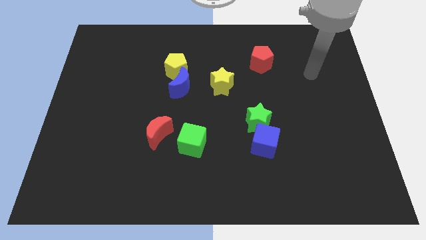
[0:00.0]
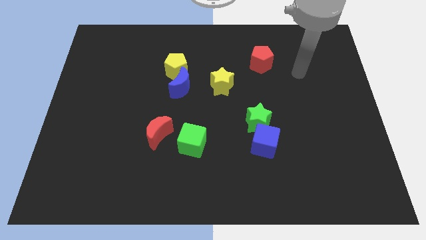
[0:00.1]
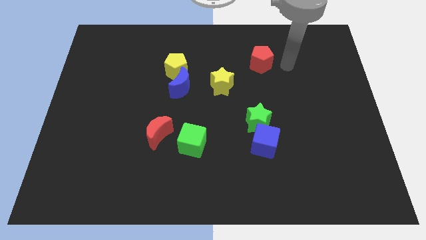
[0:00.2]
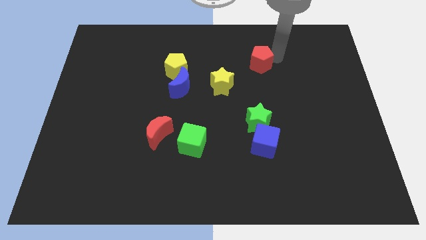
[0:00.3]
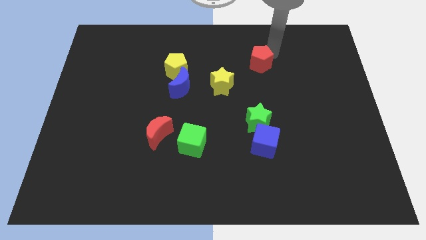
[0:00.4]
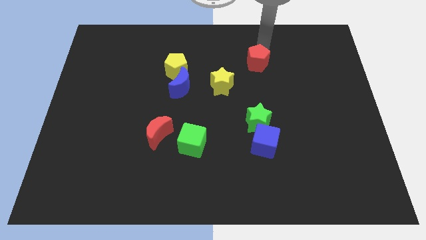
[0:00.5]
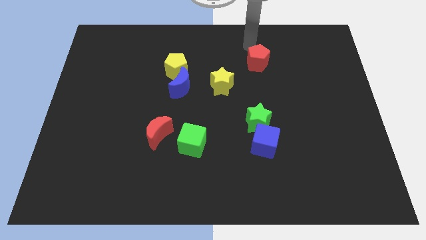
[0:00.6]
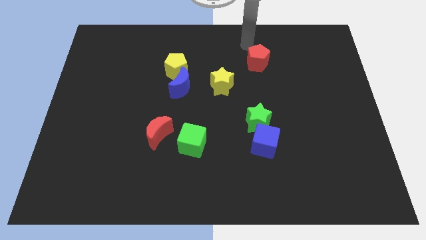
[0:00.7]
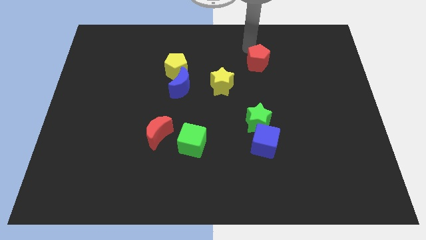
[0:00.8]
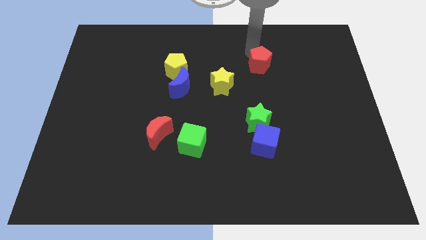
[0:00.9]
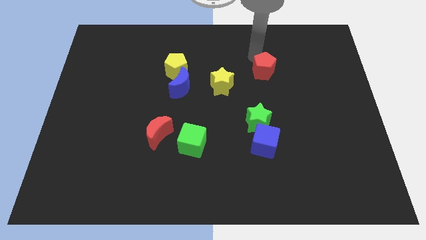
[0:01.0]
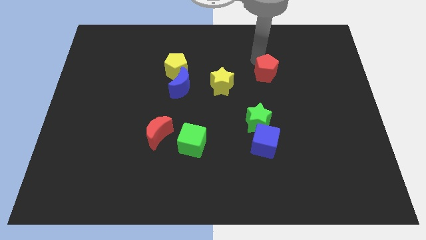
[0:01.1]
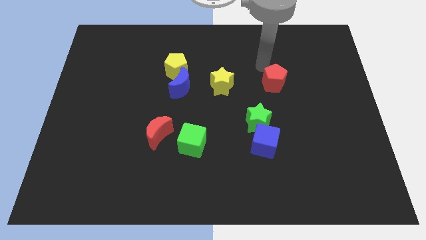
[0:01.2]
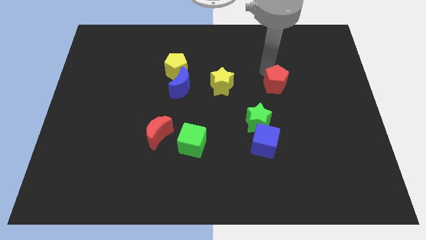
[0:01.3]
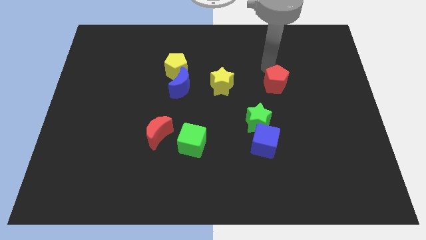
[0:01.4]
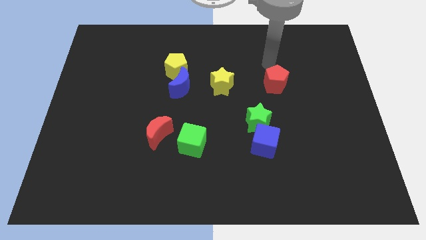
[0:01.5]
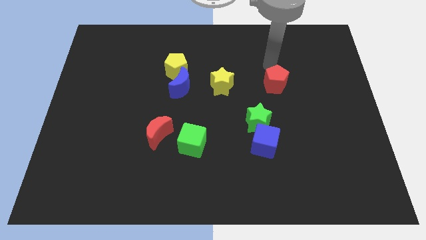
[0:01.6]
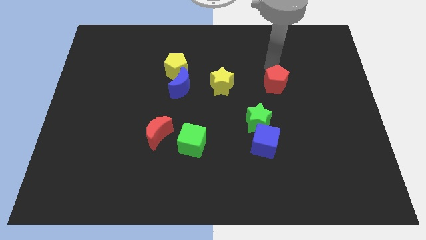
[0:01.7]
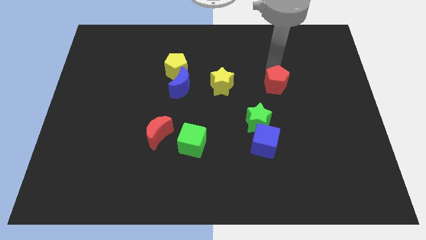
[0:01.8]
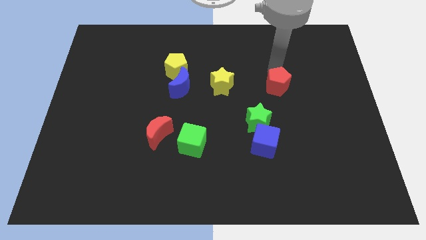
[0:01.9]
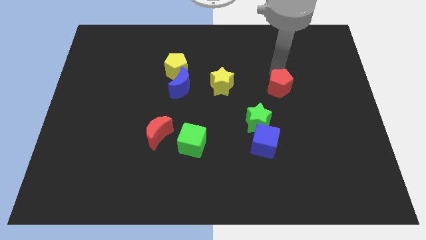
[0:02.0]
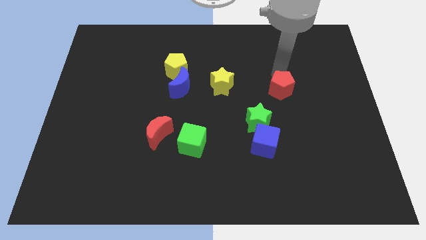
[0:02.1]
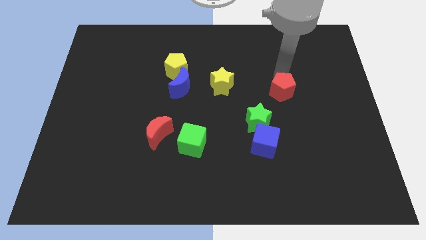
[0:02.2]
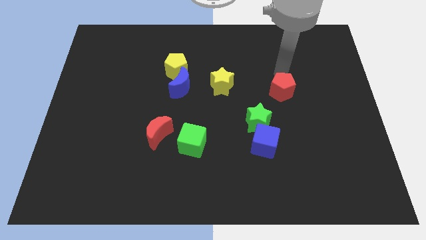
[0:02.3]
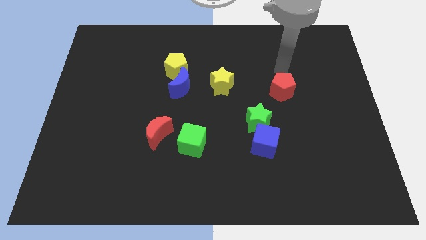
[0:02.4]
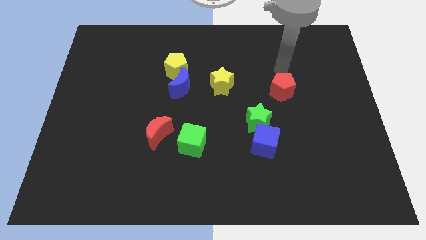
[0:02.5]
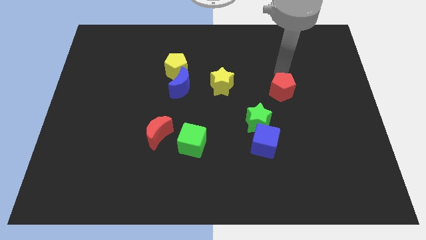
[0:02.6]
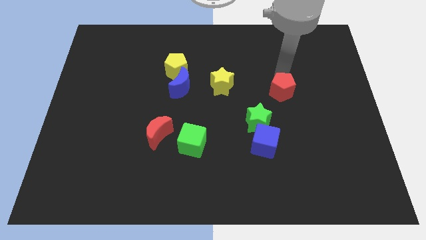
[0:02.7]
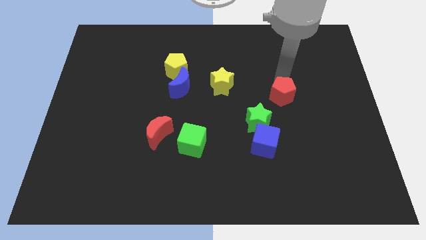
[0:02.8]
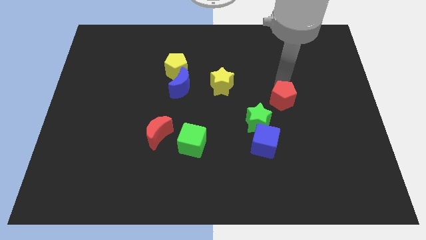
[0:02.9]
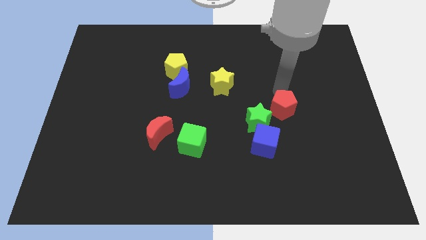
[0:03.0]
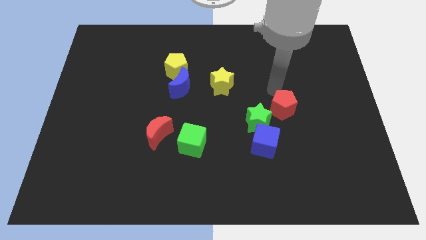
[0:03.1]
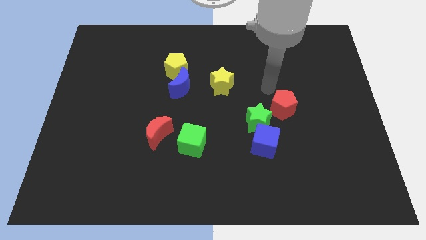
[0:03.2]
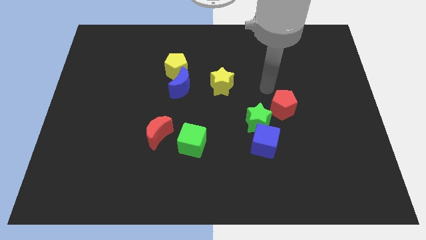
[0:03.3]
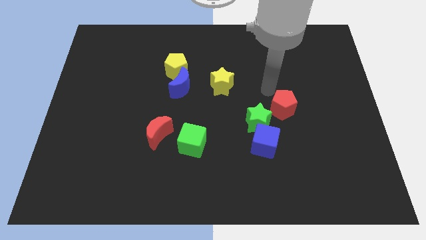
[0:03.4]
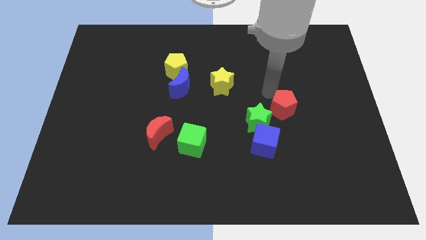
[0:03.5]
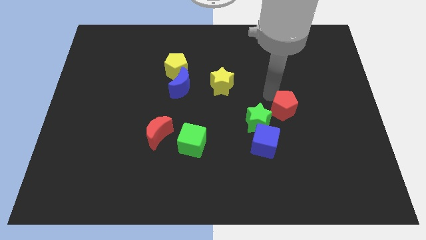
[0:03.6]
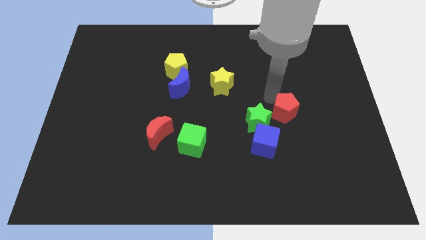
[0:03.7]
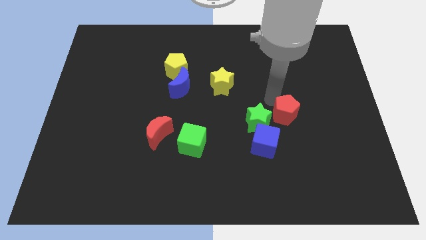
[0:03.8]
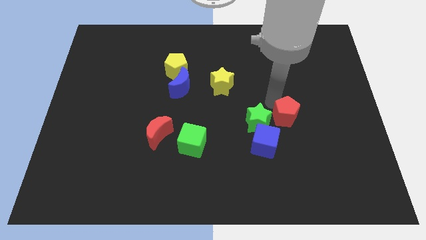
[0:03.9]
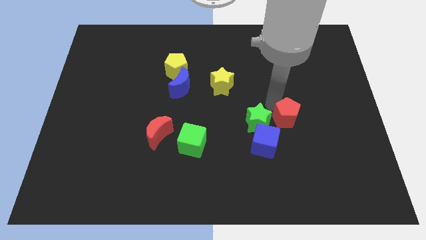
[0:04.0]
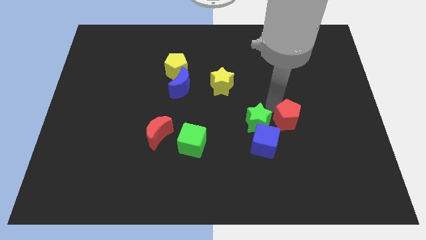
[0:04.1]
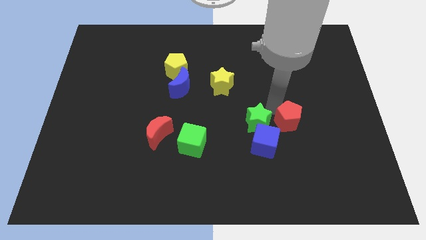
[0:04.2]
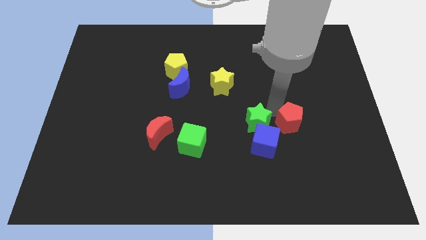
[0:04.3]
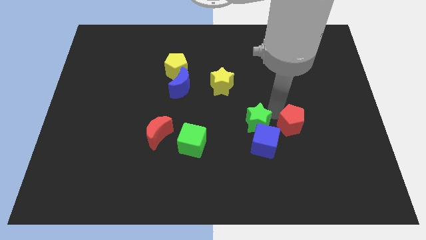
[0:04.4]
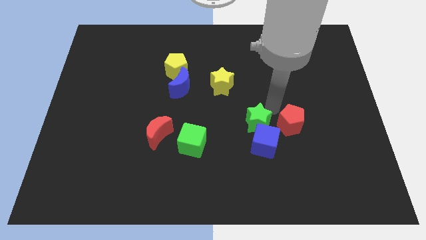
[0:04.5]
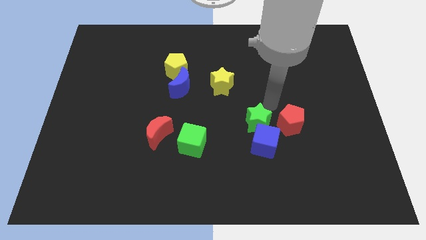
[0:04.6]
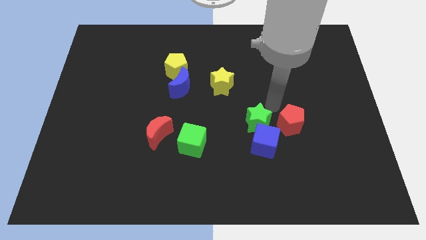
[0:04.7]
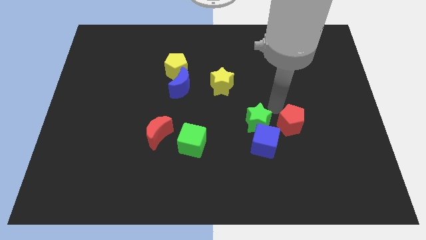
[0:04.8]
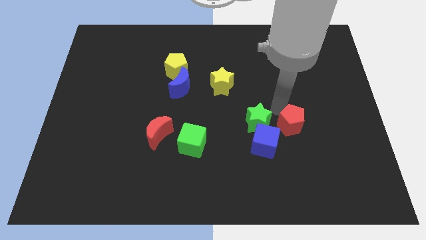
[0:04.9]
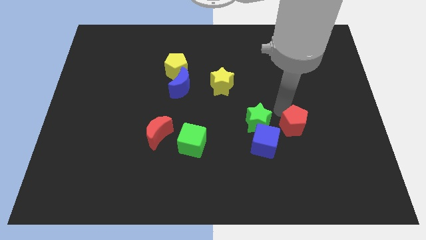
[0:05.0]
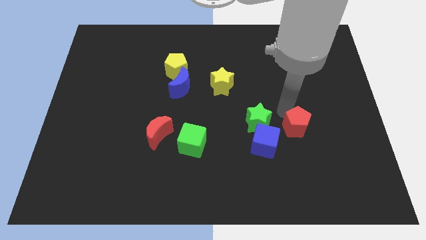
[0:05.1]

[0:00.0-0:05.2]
slide the red pentagon to the right of the blue cube

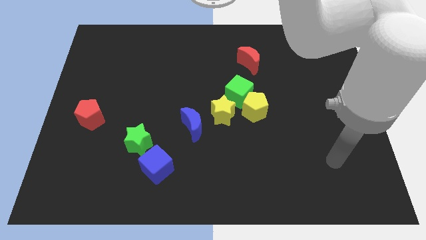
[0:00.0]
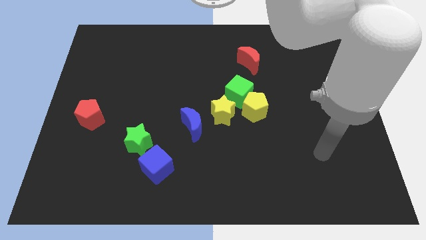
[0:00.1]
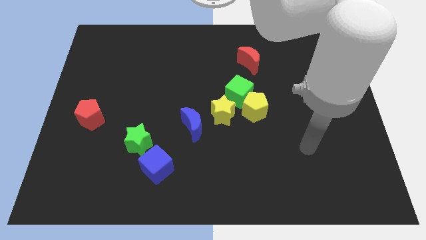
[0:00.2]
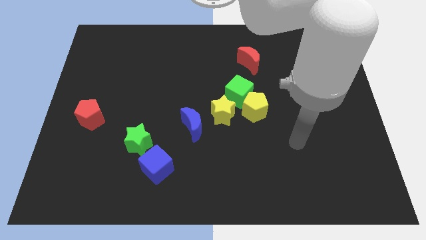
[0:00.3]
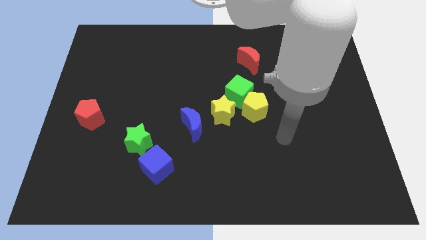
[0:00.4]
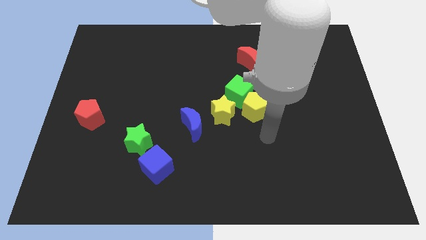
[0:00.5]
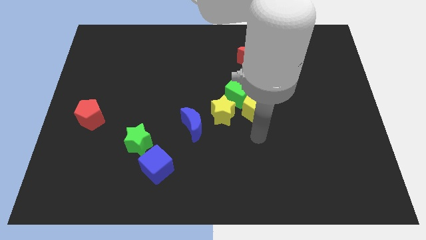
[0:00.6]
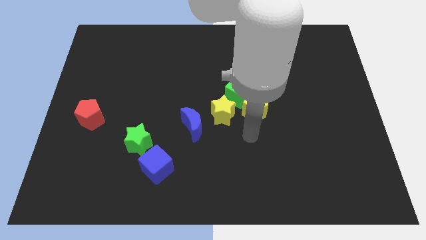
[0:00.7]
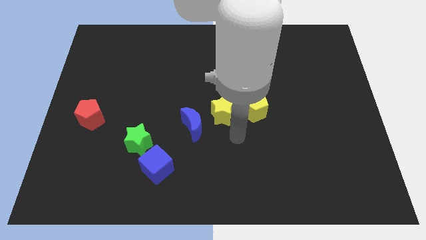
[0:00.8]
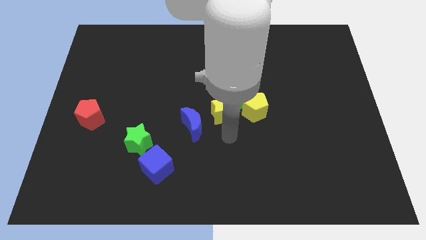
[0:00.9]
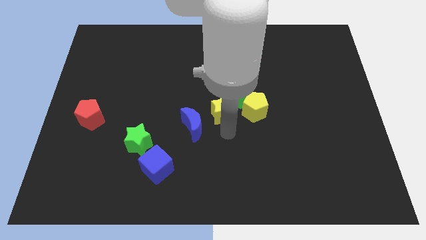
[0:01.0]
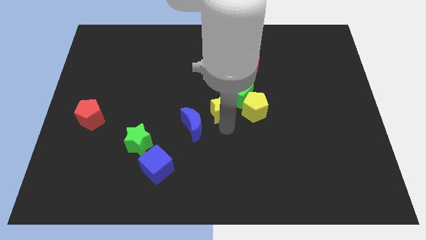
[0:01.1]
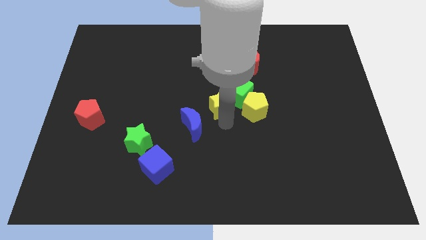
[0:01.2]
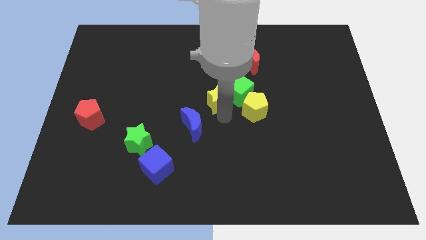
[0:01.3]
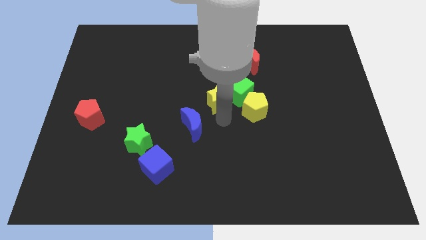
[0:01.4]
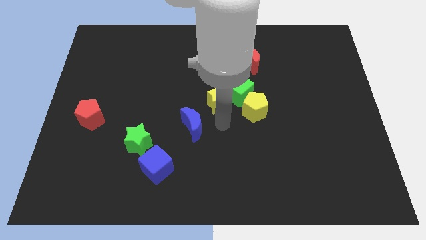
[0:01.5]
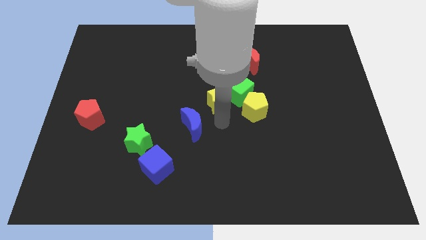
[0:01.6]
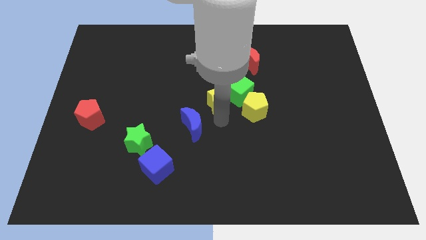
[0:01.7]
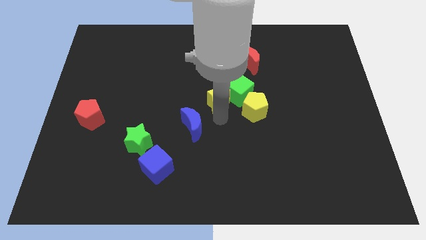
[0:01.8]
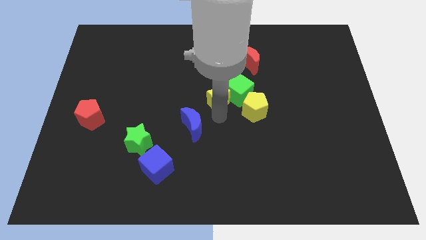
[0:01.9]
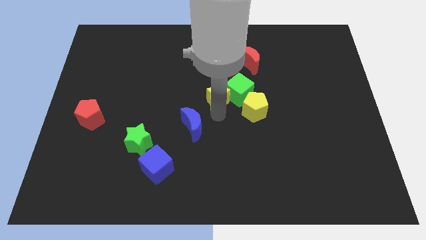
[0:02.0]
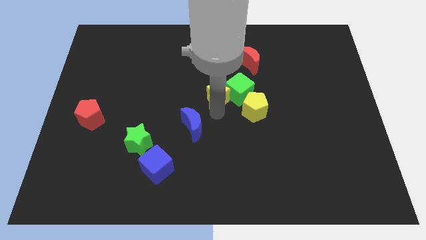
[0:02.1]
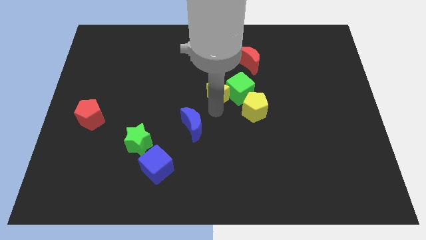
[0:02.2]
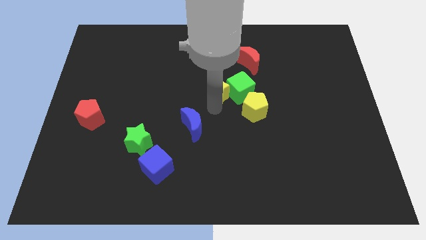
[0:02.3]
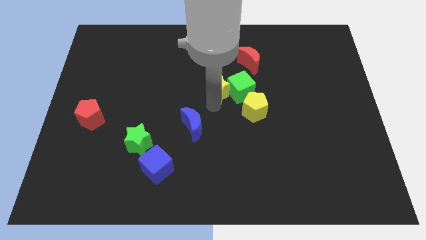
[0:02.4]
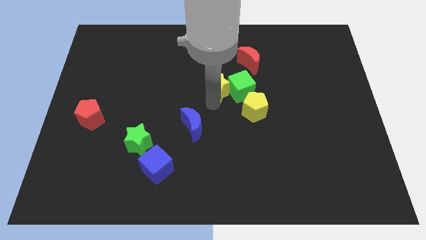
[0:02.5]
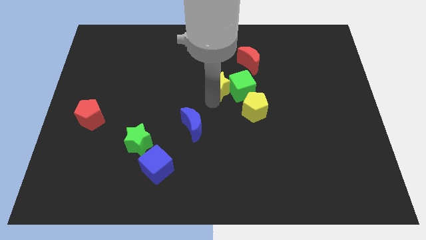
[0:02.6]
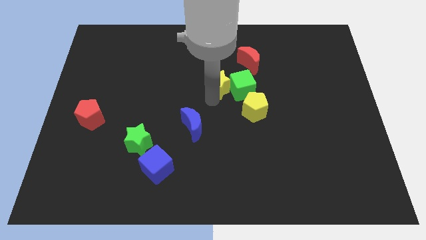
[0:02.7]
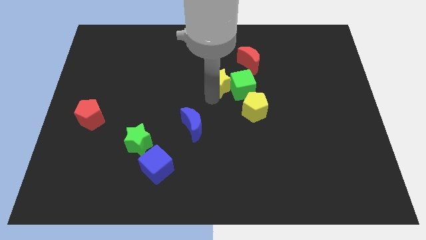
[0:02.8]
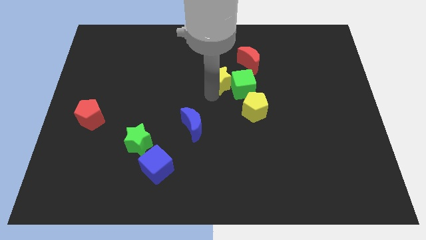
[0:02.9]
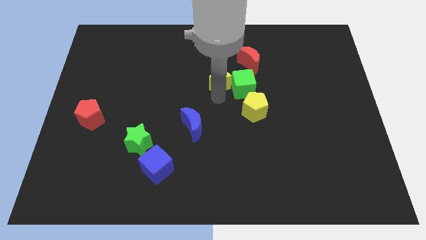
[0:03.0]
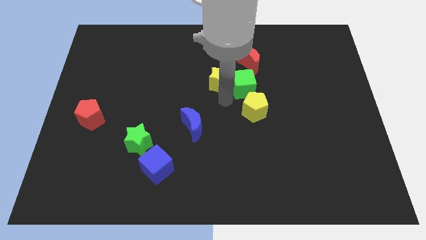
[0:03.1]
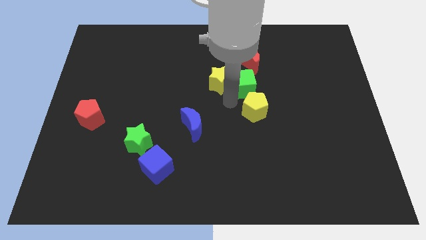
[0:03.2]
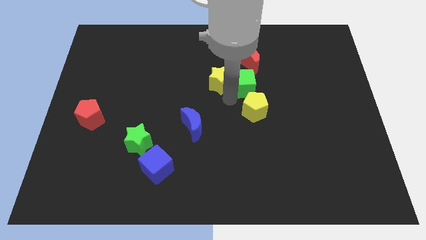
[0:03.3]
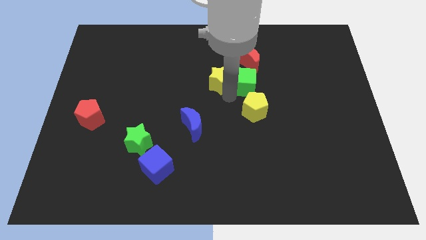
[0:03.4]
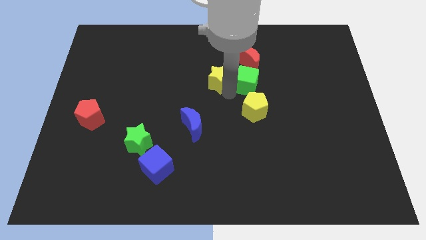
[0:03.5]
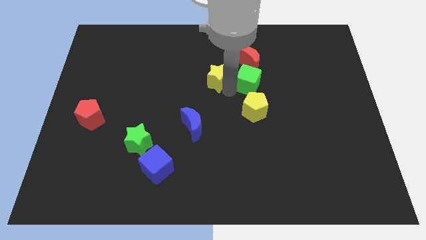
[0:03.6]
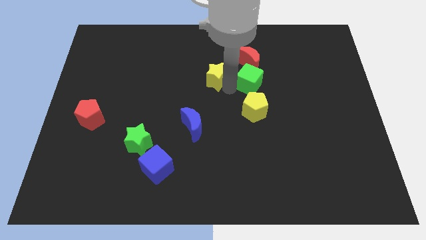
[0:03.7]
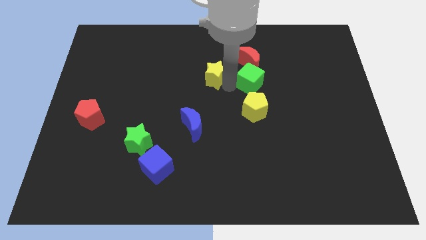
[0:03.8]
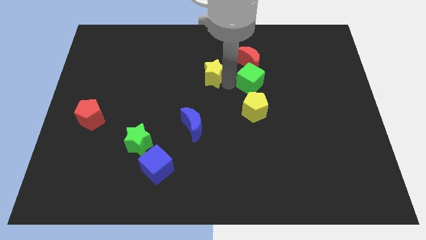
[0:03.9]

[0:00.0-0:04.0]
push the yellow star left of the red moon
